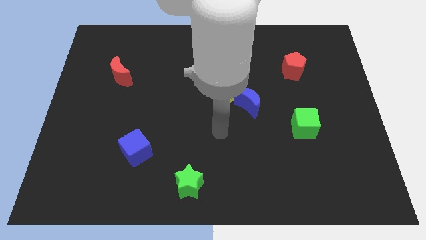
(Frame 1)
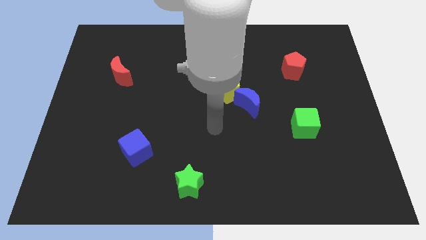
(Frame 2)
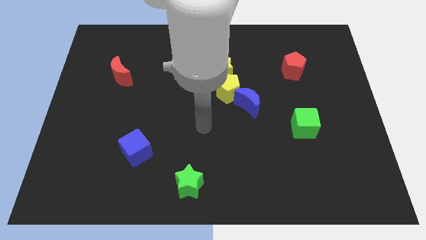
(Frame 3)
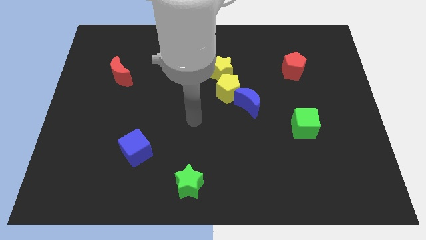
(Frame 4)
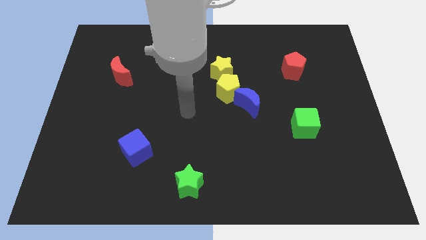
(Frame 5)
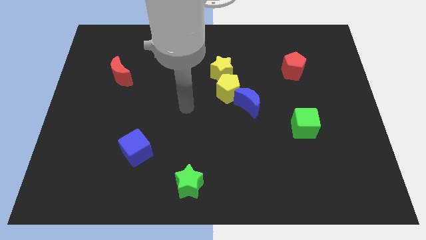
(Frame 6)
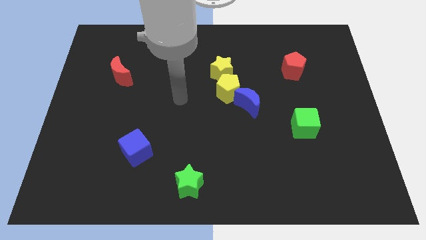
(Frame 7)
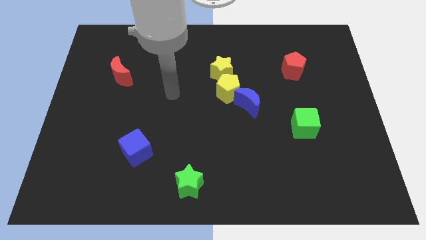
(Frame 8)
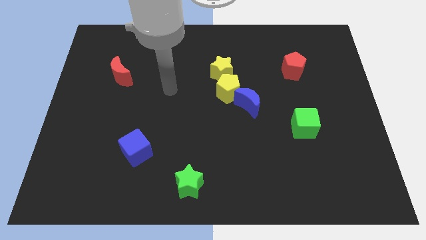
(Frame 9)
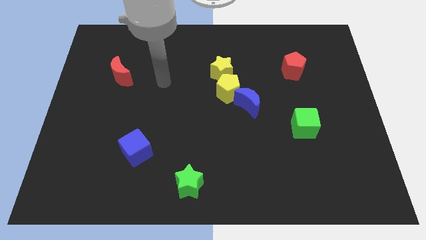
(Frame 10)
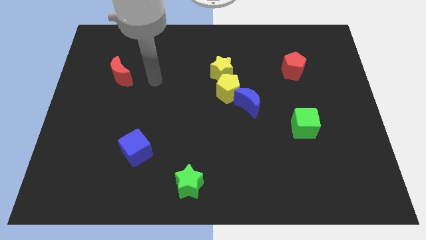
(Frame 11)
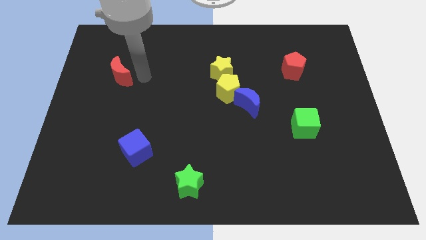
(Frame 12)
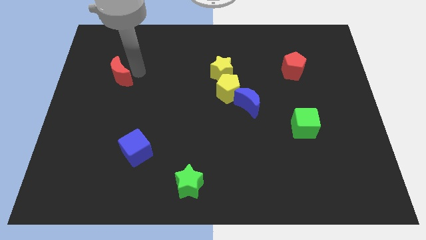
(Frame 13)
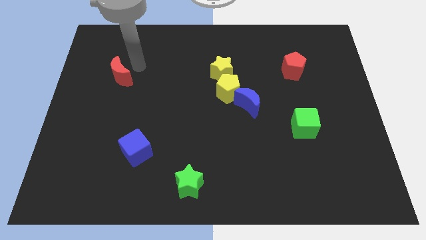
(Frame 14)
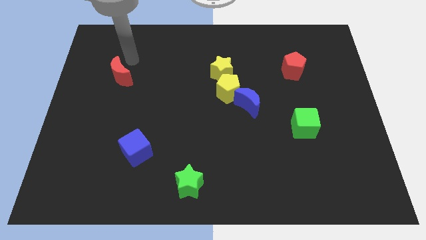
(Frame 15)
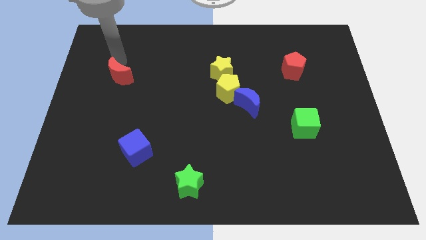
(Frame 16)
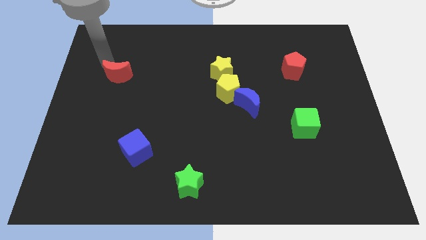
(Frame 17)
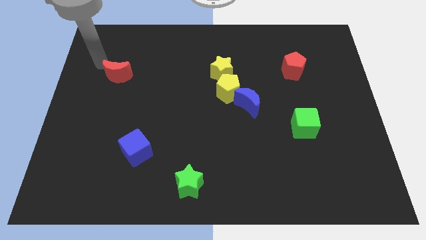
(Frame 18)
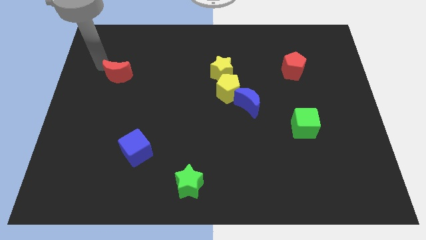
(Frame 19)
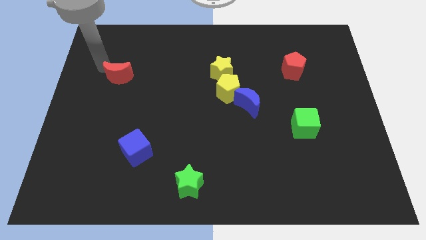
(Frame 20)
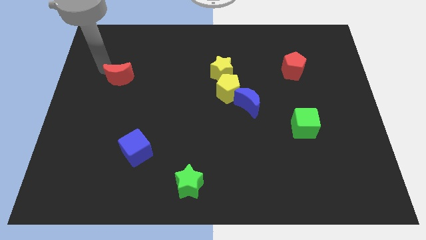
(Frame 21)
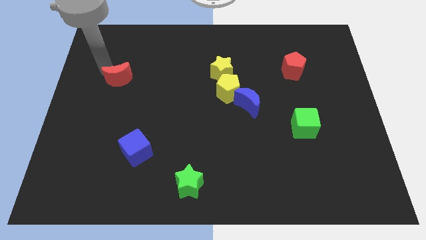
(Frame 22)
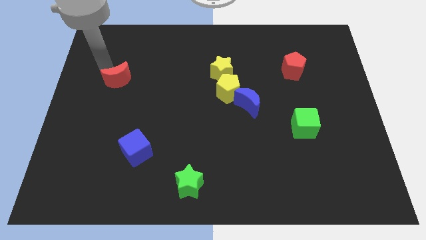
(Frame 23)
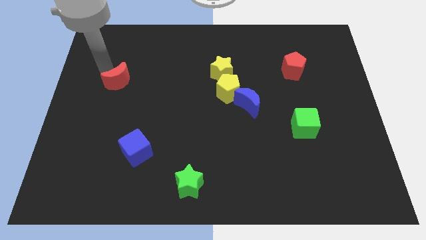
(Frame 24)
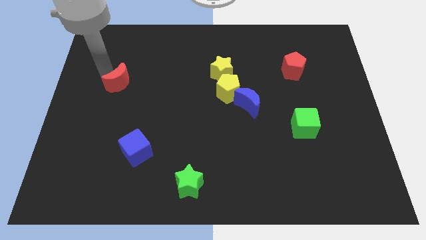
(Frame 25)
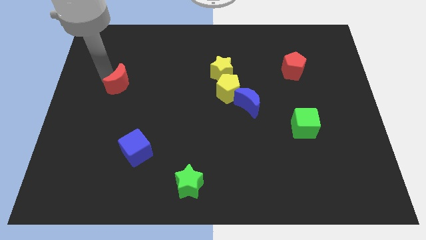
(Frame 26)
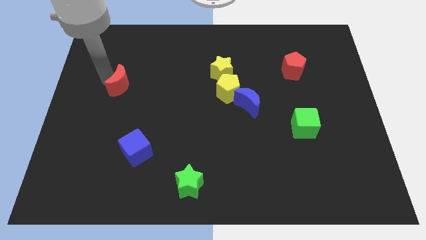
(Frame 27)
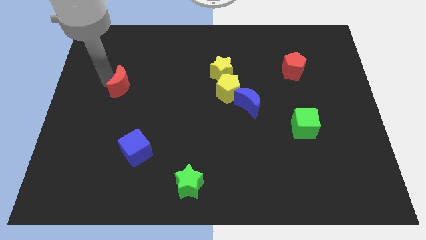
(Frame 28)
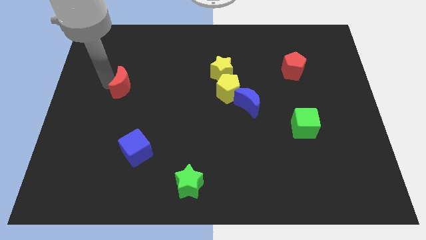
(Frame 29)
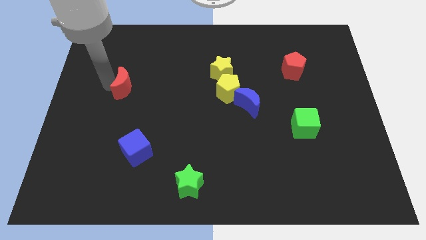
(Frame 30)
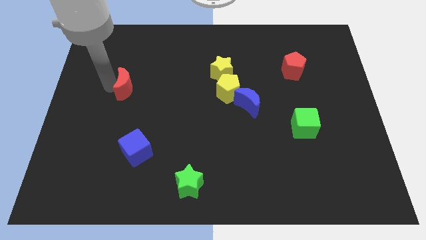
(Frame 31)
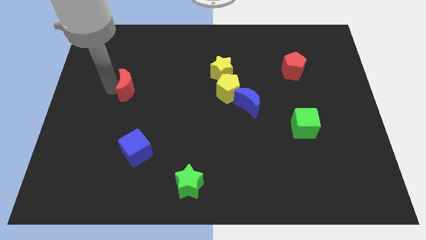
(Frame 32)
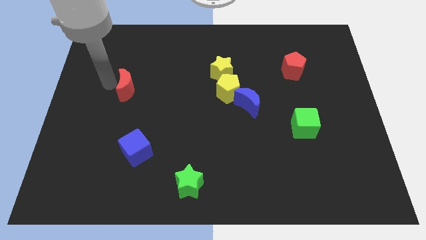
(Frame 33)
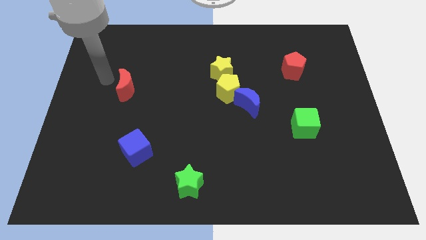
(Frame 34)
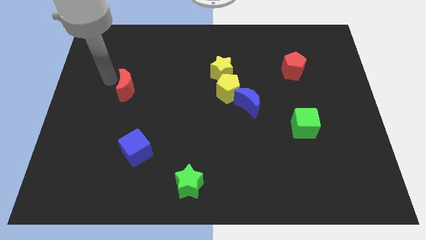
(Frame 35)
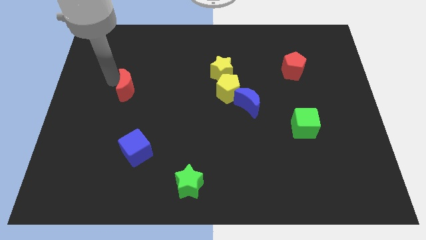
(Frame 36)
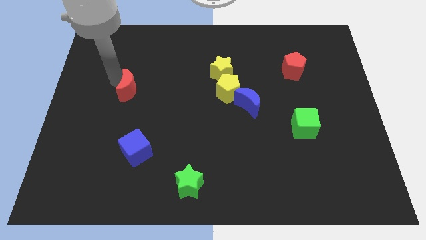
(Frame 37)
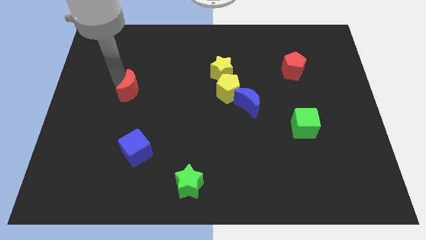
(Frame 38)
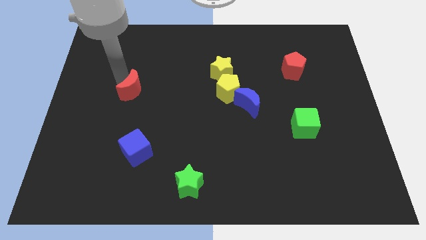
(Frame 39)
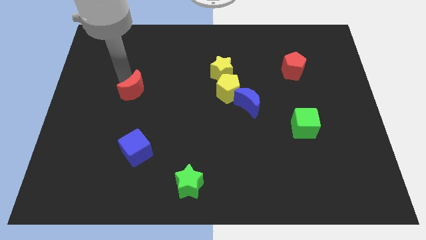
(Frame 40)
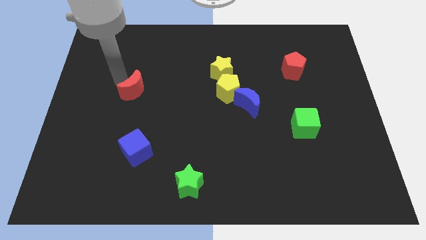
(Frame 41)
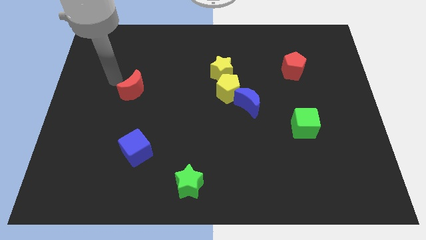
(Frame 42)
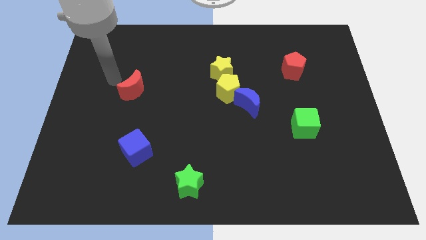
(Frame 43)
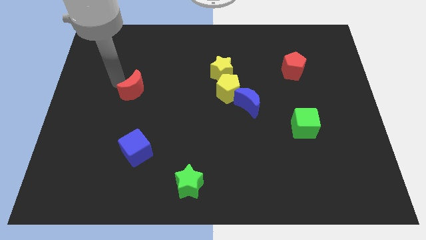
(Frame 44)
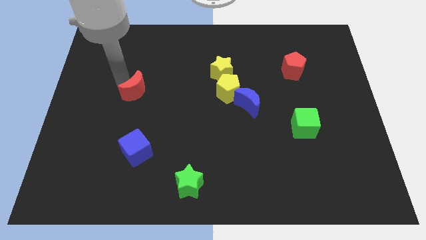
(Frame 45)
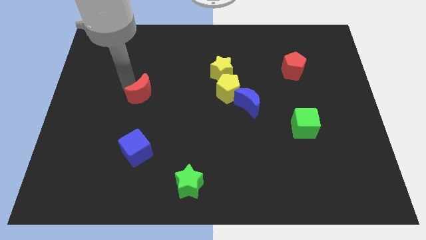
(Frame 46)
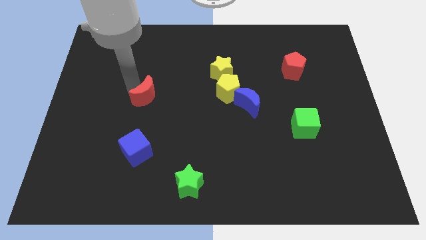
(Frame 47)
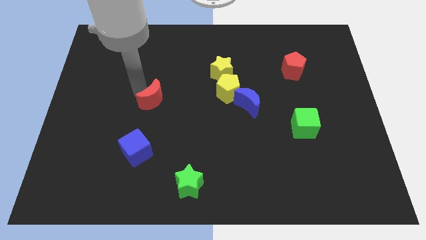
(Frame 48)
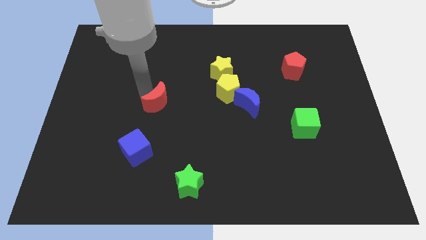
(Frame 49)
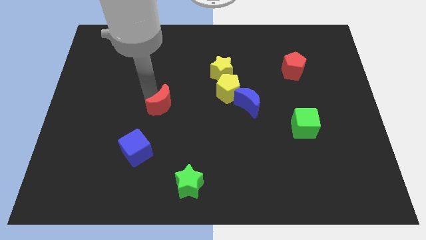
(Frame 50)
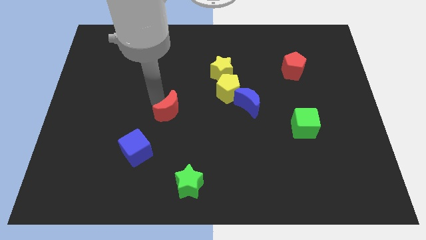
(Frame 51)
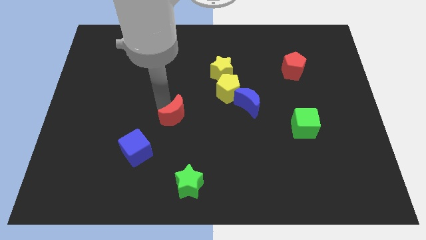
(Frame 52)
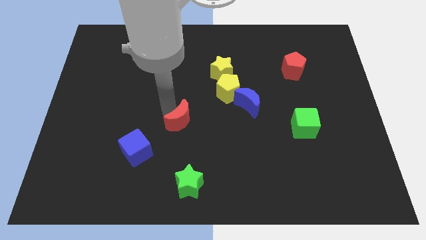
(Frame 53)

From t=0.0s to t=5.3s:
slide the red moon down and then to the right

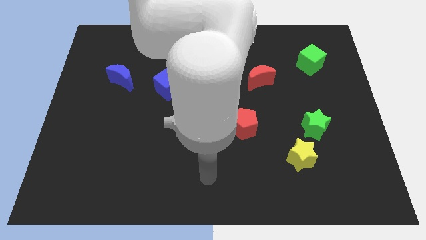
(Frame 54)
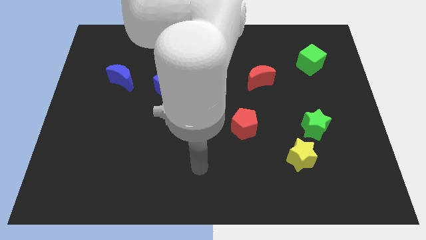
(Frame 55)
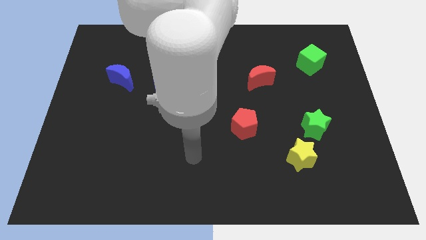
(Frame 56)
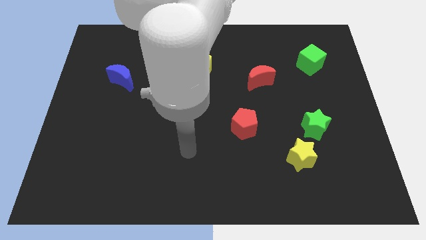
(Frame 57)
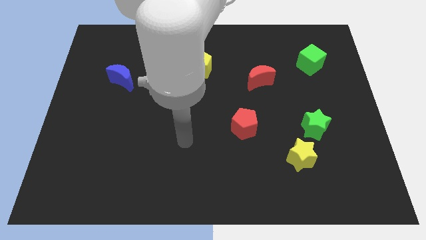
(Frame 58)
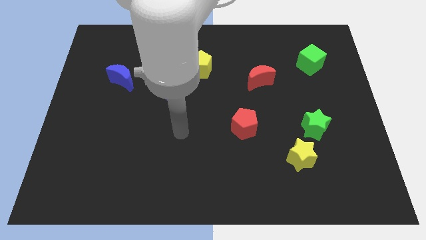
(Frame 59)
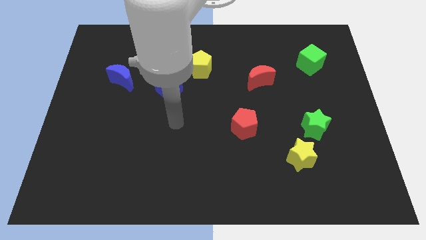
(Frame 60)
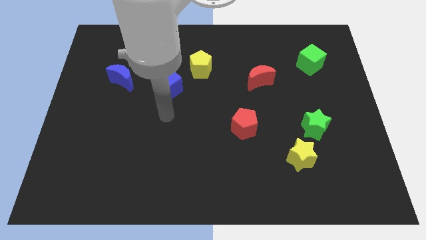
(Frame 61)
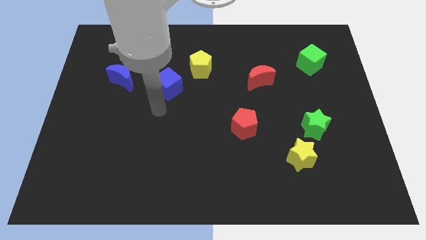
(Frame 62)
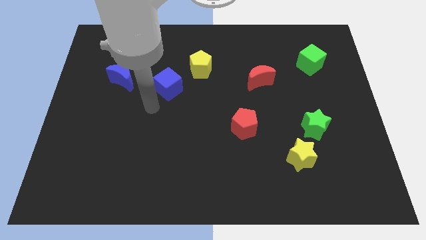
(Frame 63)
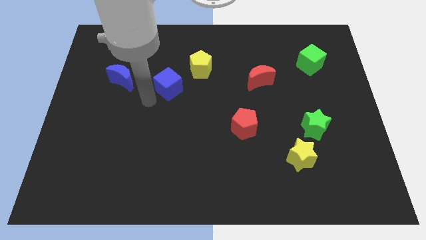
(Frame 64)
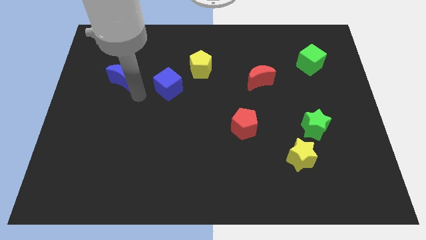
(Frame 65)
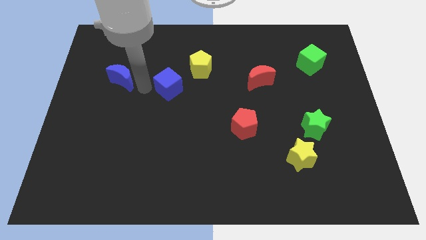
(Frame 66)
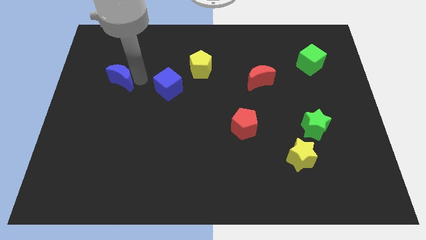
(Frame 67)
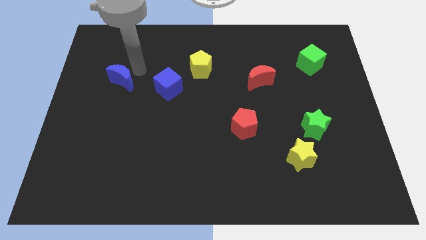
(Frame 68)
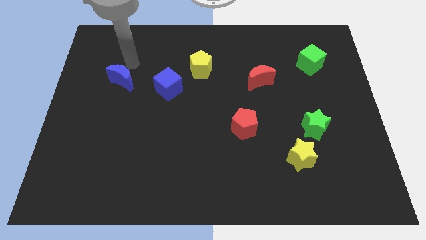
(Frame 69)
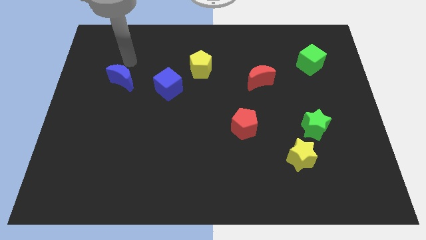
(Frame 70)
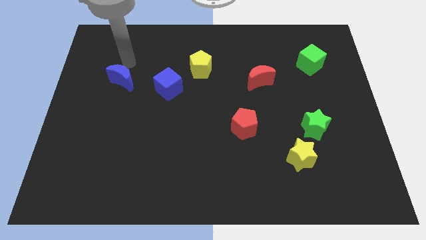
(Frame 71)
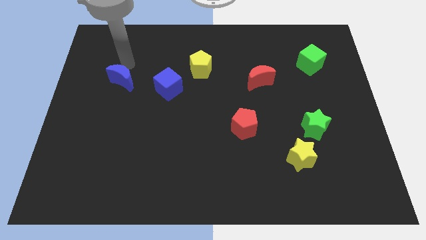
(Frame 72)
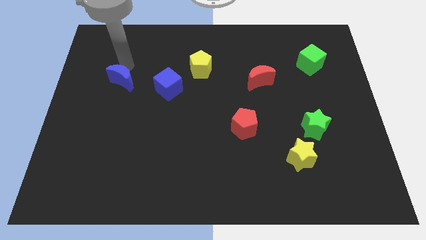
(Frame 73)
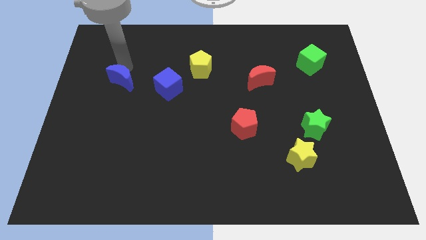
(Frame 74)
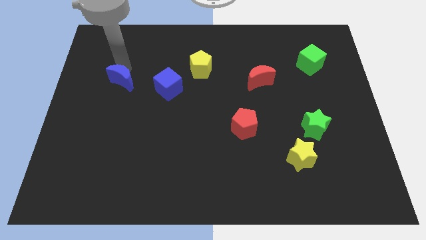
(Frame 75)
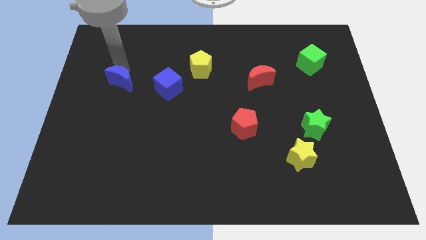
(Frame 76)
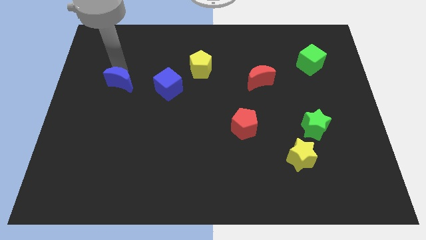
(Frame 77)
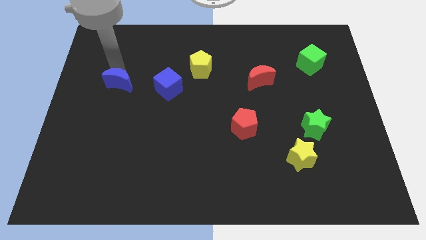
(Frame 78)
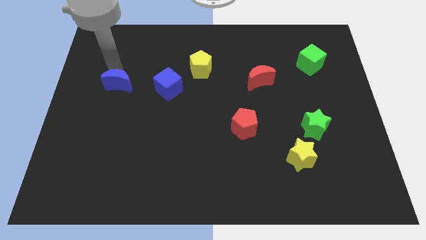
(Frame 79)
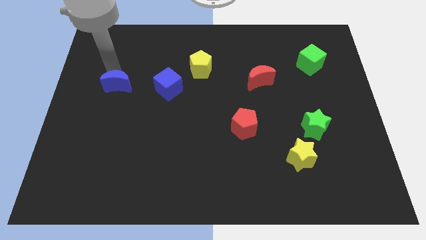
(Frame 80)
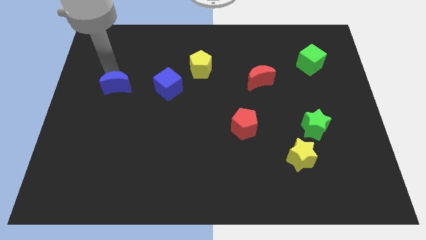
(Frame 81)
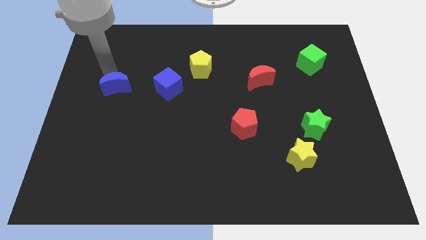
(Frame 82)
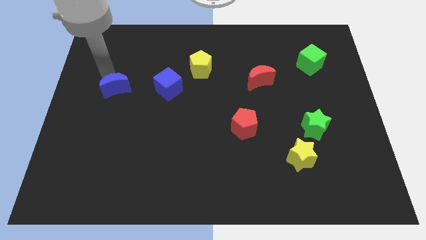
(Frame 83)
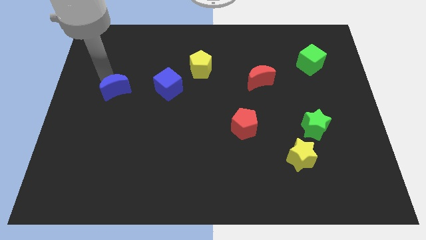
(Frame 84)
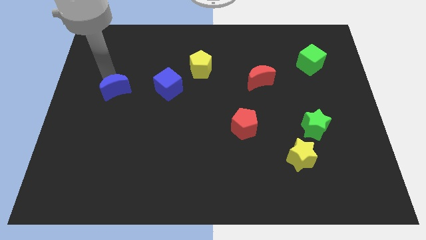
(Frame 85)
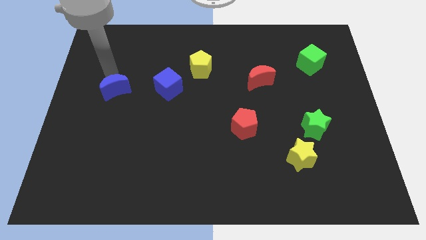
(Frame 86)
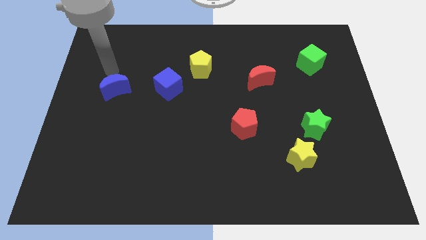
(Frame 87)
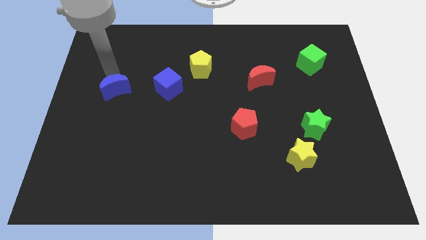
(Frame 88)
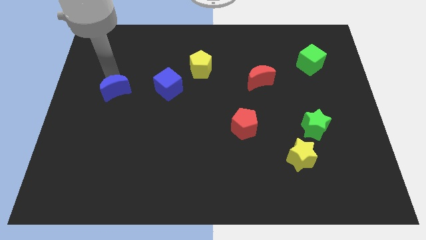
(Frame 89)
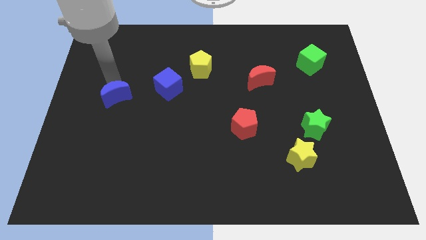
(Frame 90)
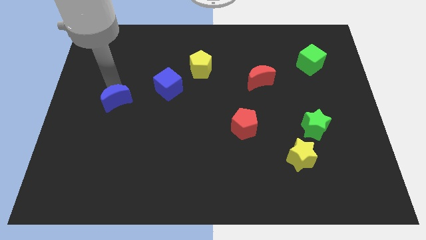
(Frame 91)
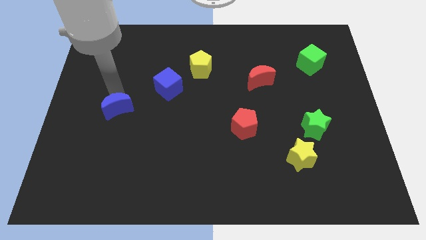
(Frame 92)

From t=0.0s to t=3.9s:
slightly move the blue moon downwards
